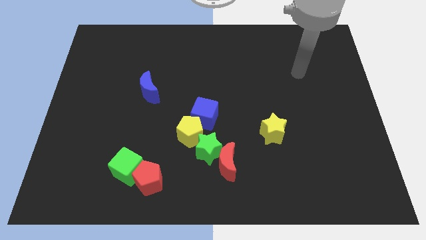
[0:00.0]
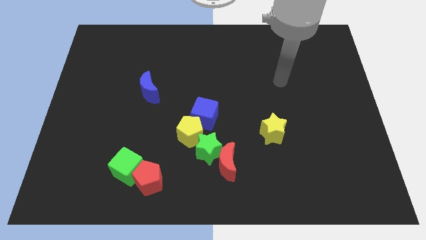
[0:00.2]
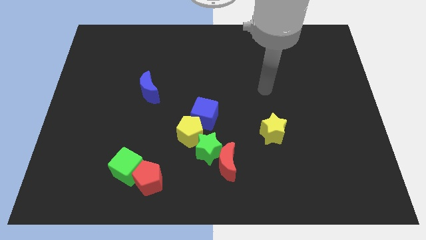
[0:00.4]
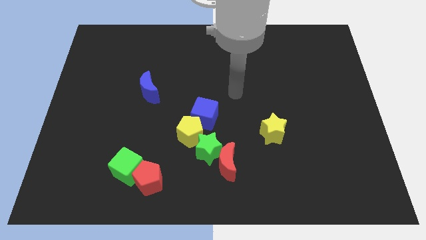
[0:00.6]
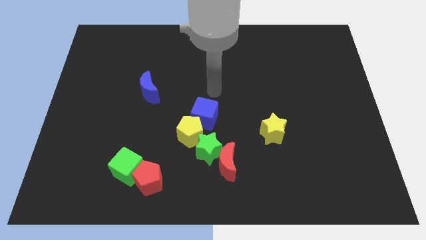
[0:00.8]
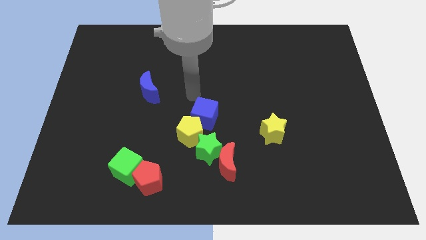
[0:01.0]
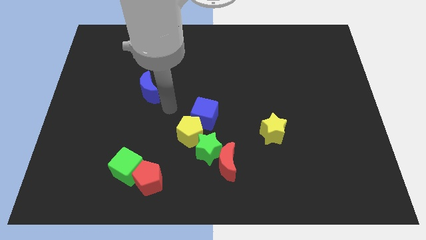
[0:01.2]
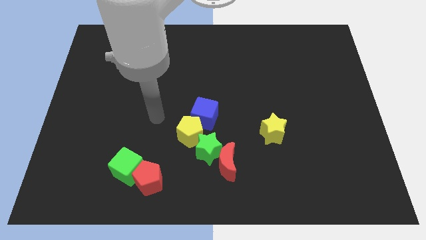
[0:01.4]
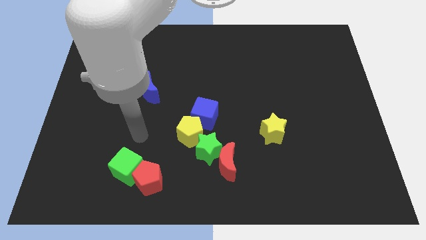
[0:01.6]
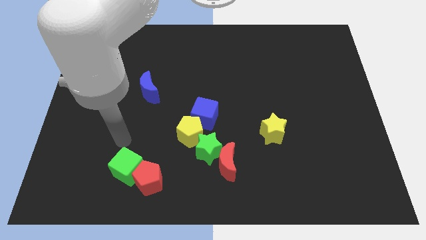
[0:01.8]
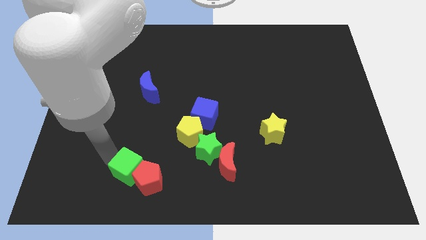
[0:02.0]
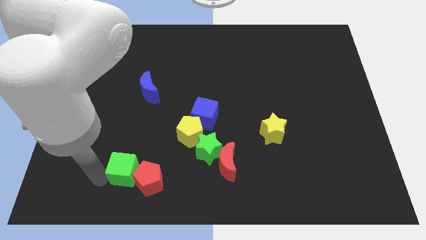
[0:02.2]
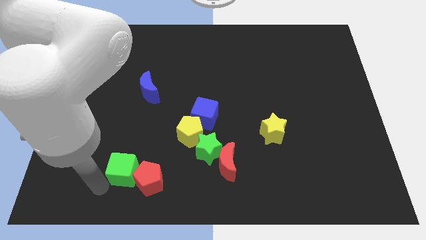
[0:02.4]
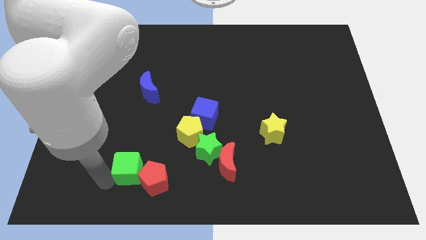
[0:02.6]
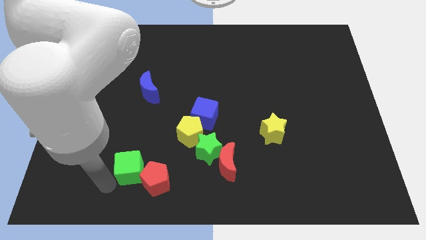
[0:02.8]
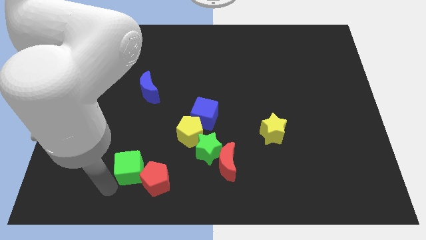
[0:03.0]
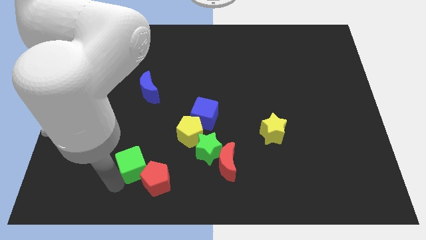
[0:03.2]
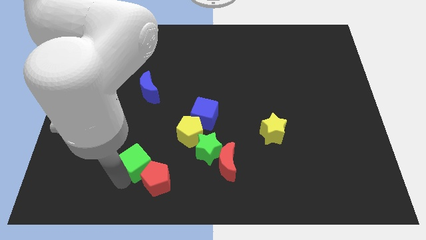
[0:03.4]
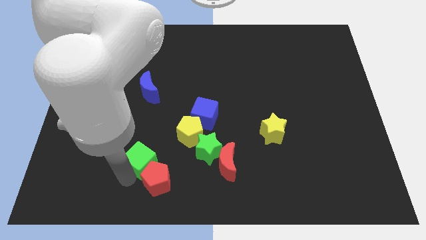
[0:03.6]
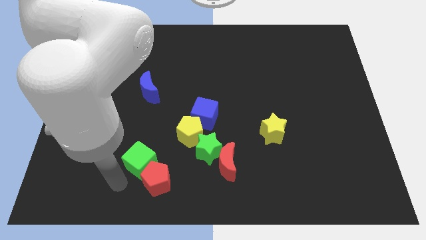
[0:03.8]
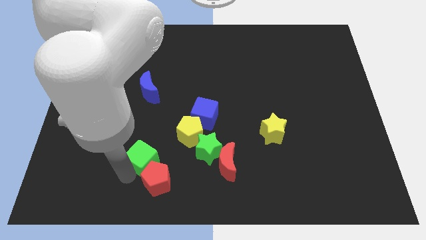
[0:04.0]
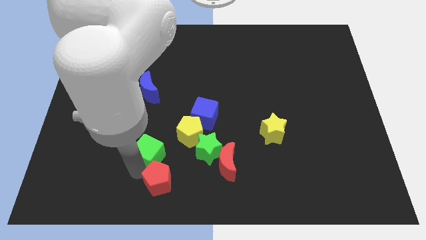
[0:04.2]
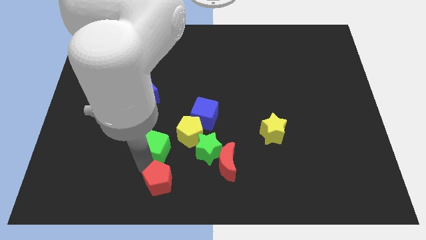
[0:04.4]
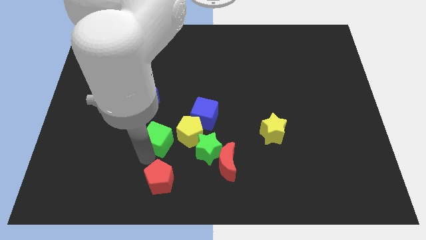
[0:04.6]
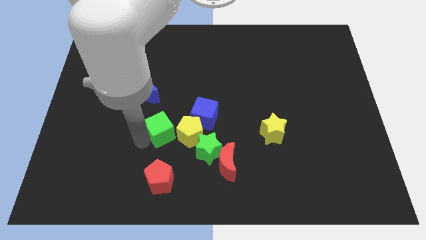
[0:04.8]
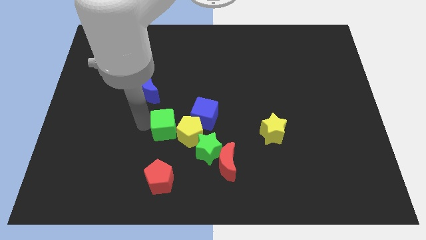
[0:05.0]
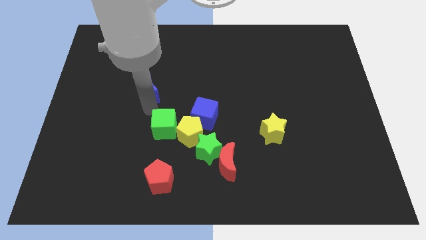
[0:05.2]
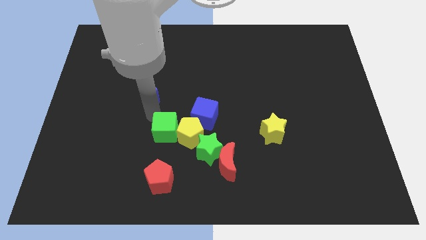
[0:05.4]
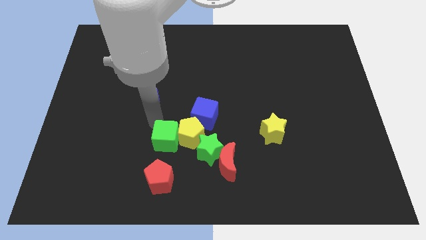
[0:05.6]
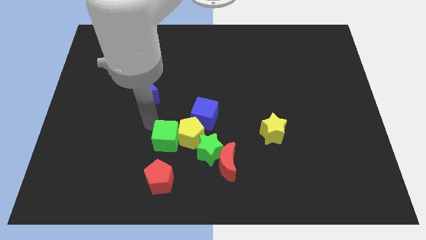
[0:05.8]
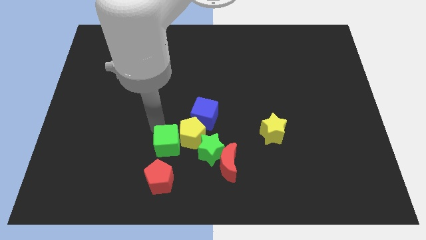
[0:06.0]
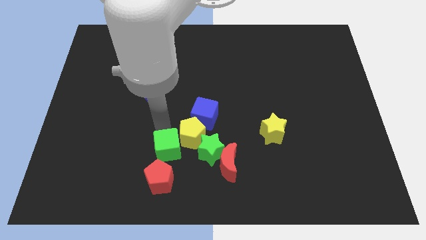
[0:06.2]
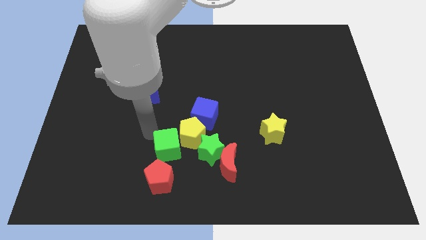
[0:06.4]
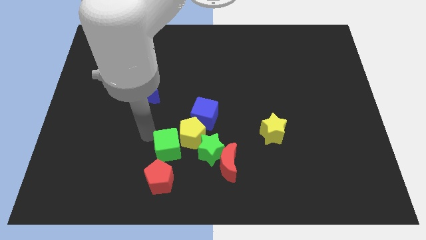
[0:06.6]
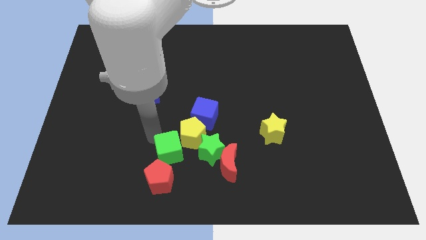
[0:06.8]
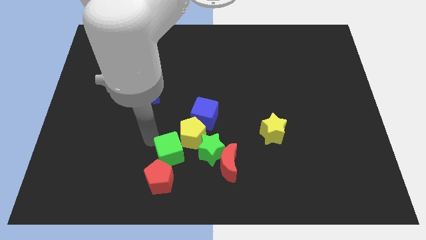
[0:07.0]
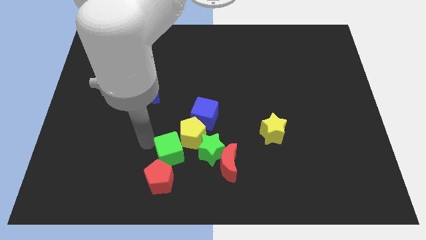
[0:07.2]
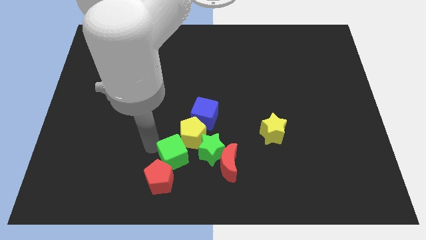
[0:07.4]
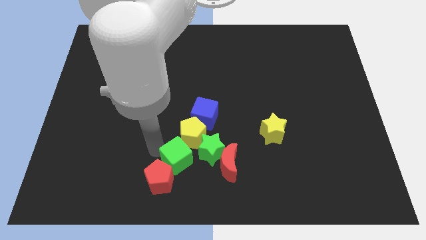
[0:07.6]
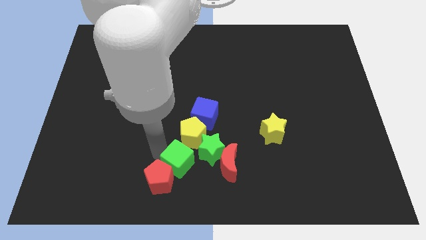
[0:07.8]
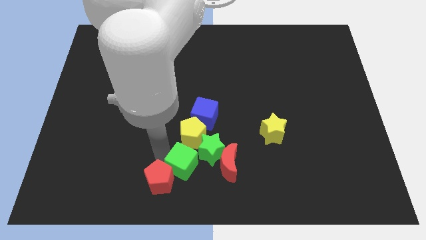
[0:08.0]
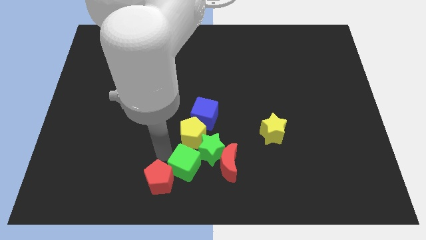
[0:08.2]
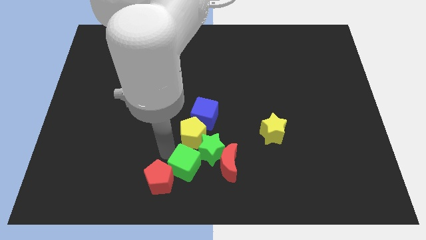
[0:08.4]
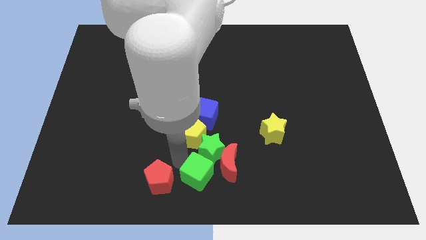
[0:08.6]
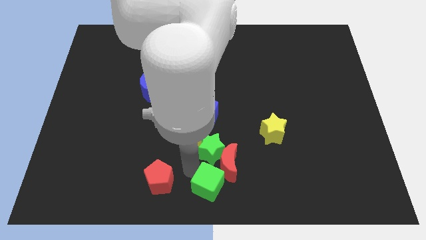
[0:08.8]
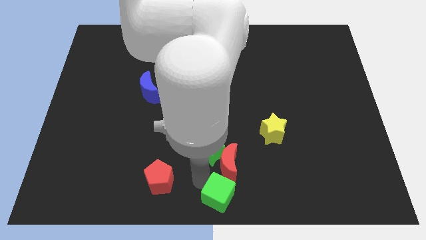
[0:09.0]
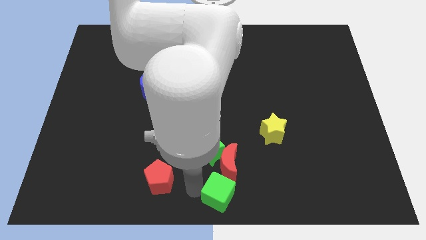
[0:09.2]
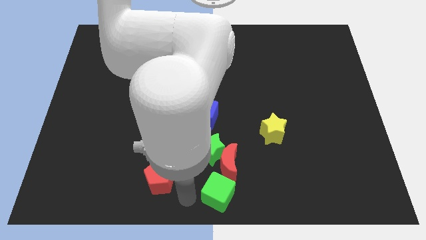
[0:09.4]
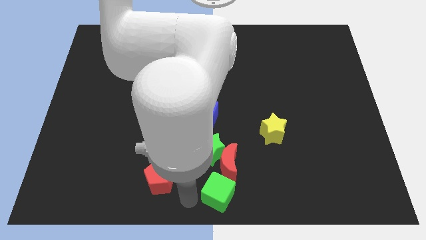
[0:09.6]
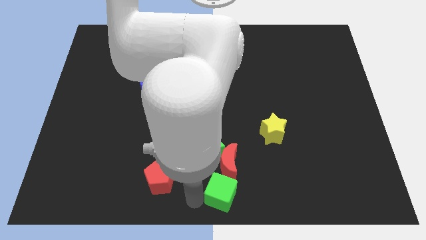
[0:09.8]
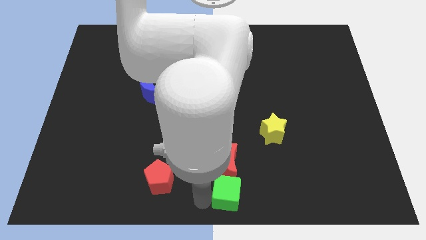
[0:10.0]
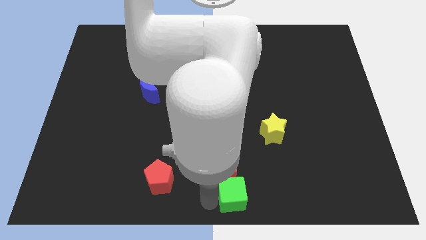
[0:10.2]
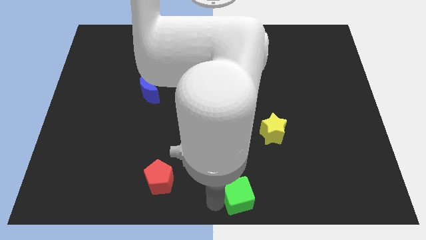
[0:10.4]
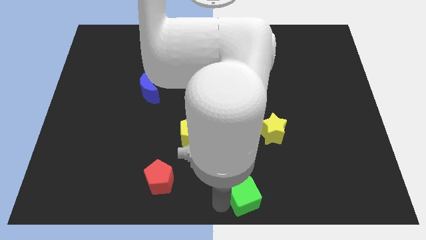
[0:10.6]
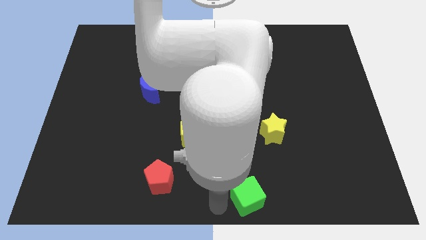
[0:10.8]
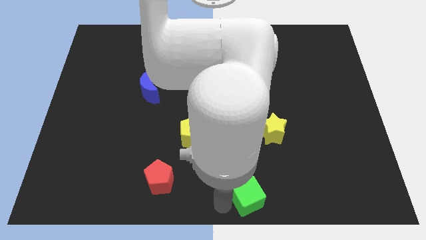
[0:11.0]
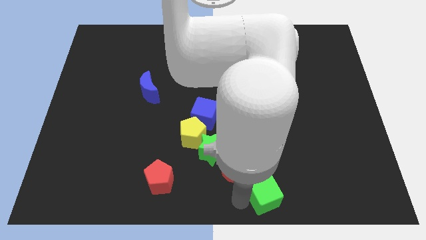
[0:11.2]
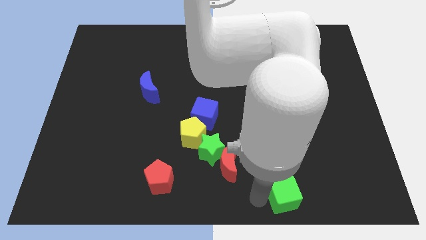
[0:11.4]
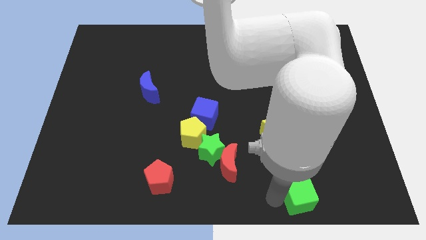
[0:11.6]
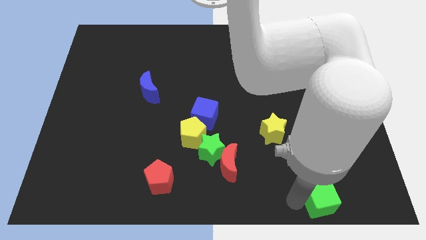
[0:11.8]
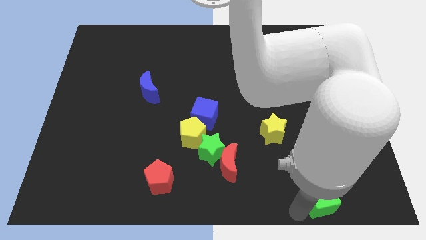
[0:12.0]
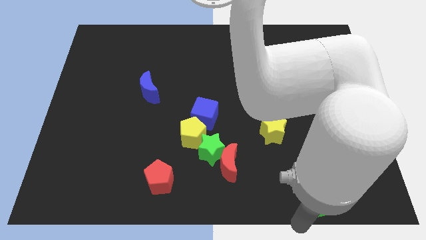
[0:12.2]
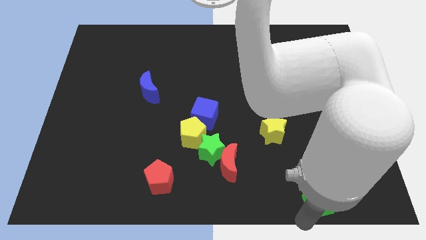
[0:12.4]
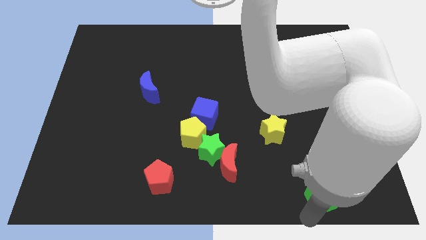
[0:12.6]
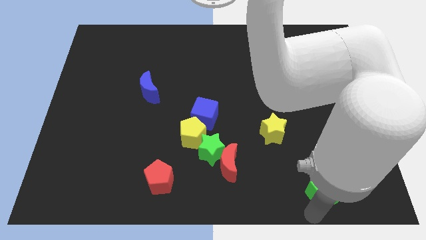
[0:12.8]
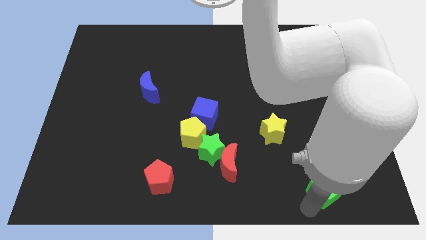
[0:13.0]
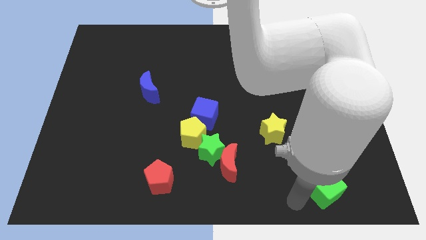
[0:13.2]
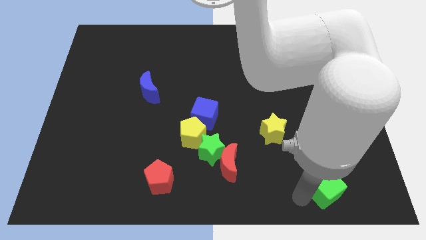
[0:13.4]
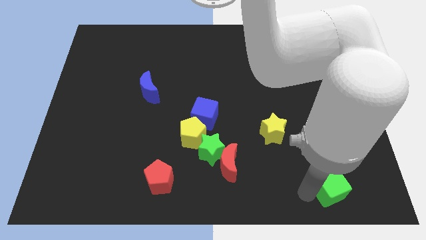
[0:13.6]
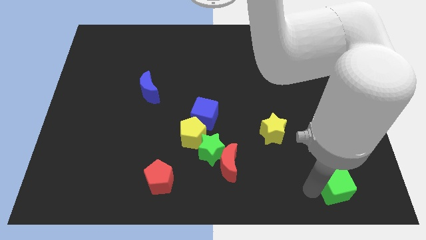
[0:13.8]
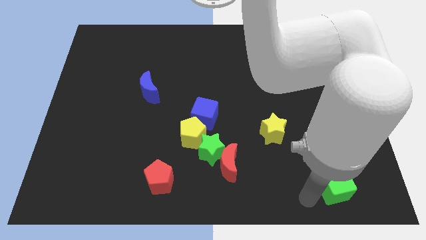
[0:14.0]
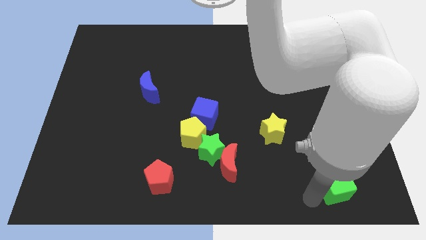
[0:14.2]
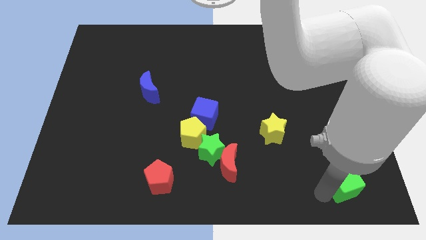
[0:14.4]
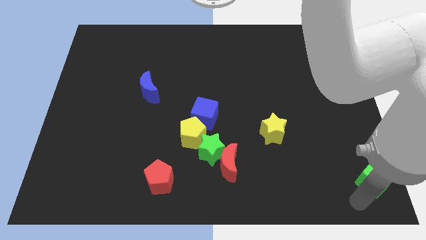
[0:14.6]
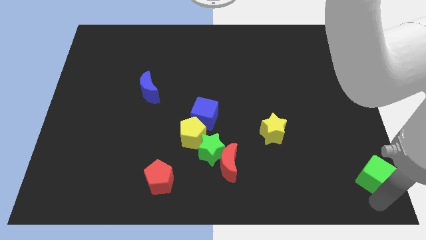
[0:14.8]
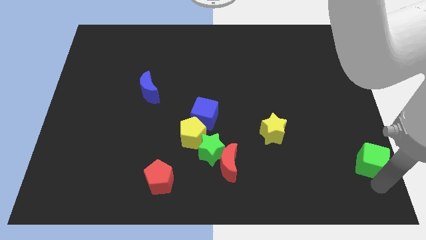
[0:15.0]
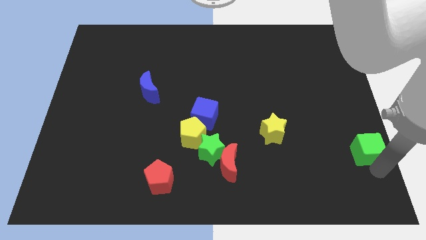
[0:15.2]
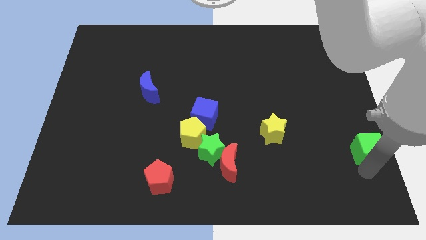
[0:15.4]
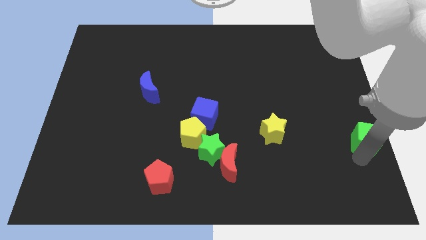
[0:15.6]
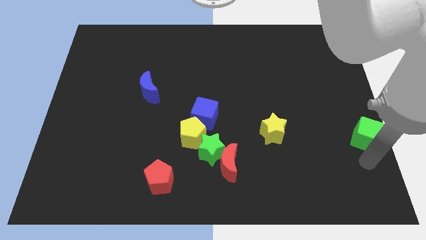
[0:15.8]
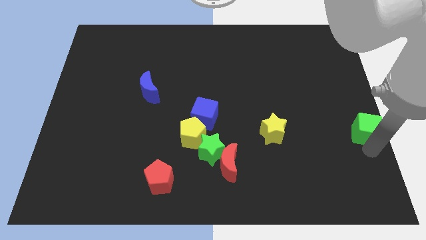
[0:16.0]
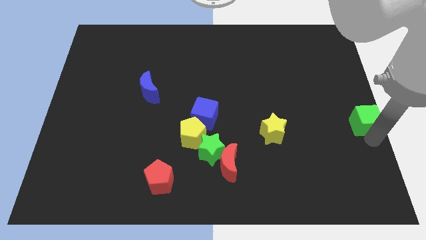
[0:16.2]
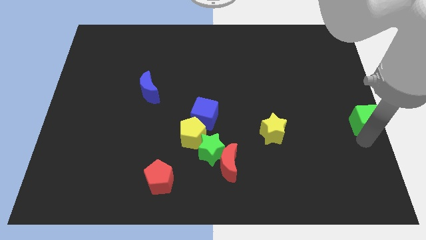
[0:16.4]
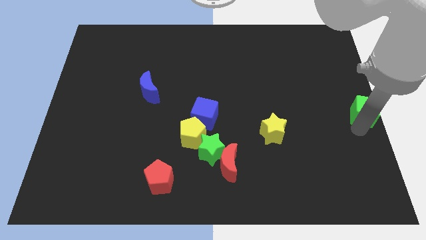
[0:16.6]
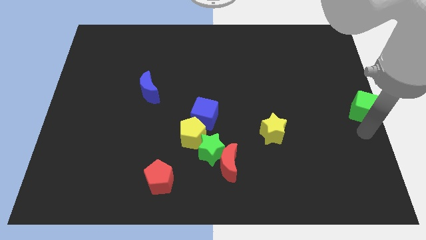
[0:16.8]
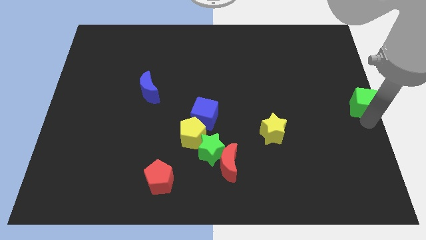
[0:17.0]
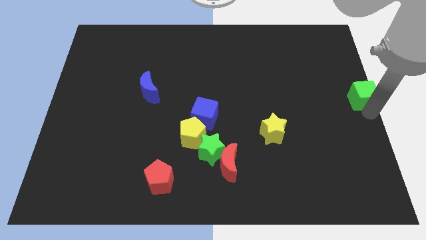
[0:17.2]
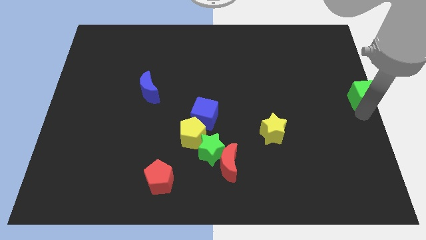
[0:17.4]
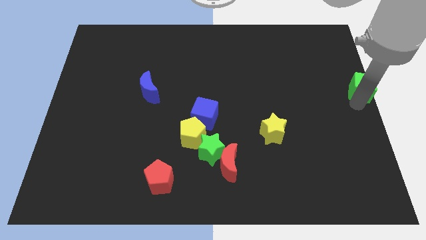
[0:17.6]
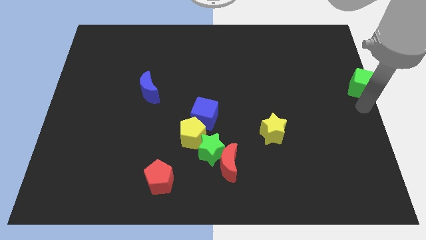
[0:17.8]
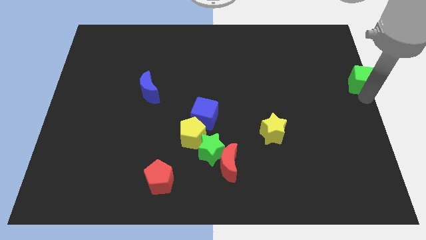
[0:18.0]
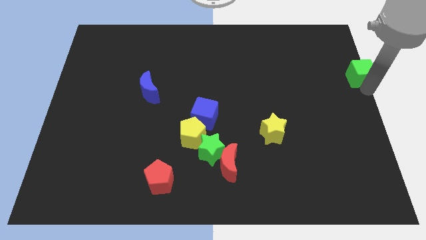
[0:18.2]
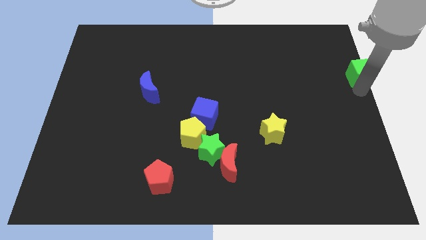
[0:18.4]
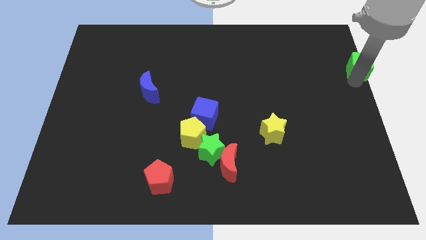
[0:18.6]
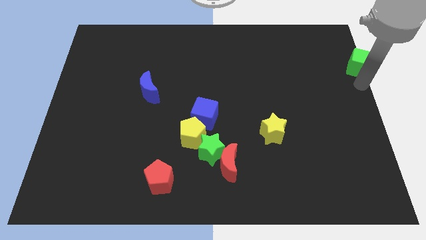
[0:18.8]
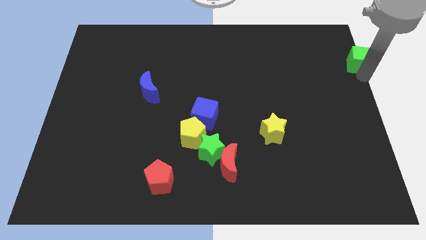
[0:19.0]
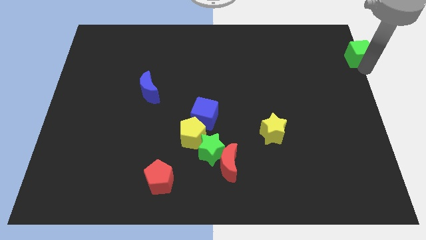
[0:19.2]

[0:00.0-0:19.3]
move the green cube to the upper right corner
